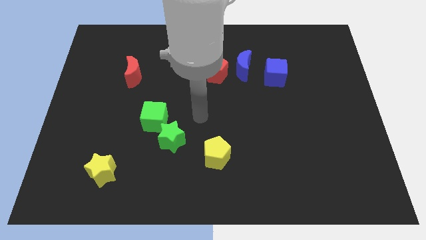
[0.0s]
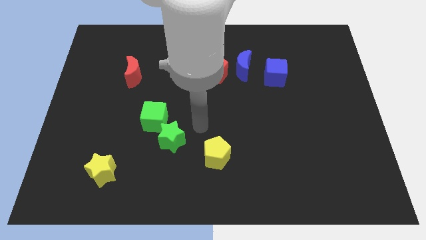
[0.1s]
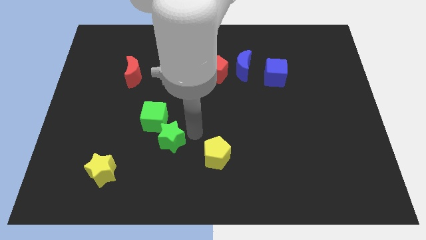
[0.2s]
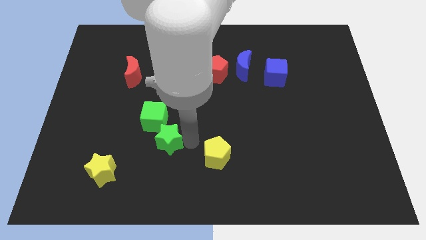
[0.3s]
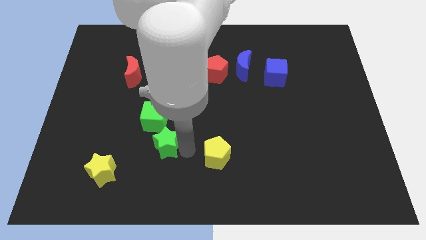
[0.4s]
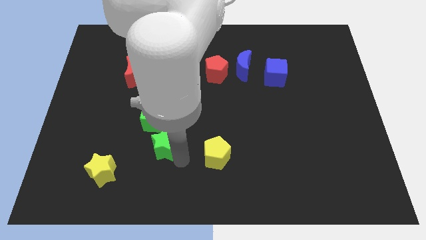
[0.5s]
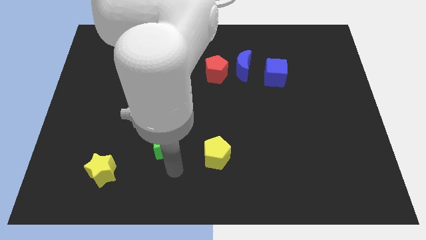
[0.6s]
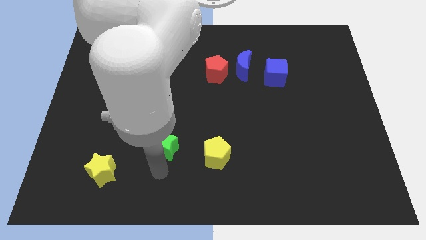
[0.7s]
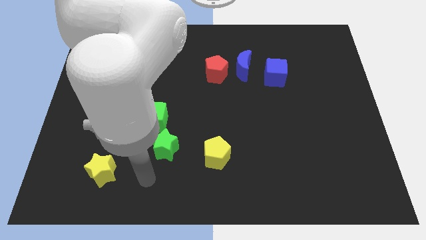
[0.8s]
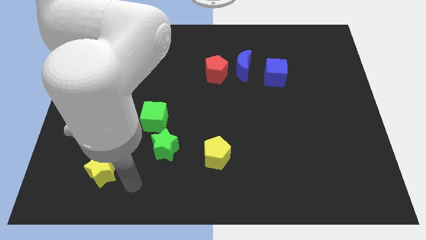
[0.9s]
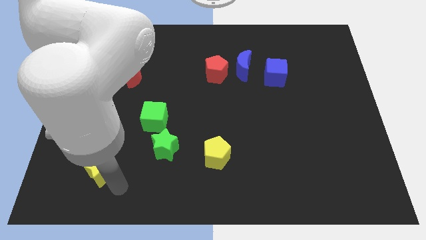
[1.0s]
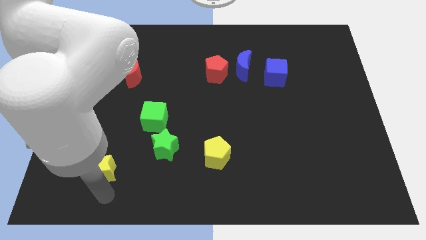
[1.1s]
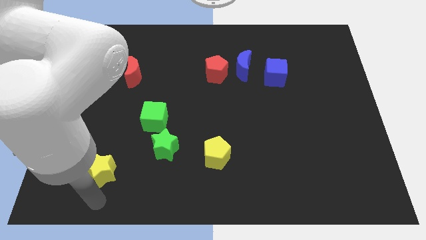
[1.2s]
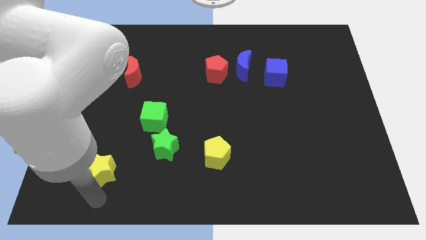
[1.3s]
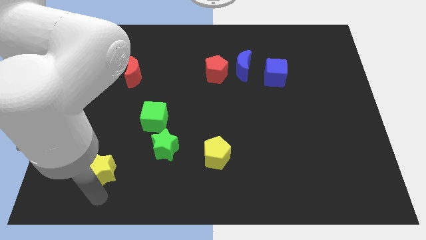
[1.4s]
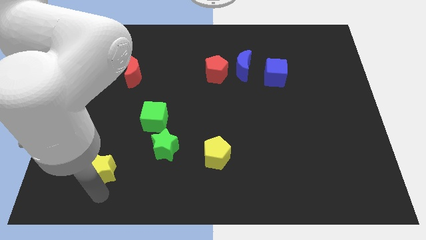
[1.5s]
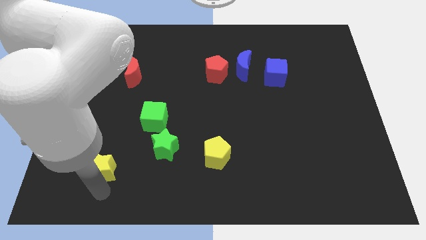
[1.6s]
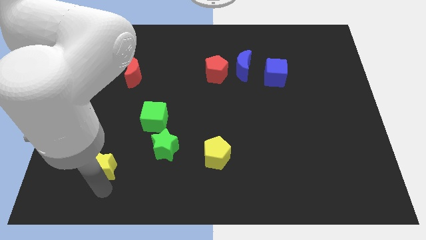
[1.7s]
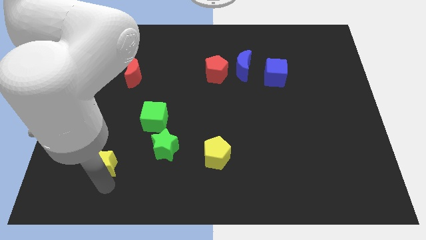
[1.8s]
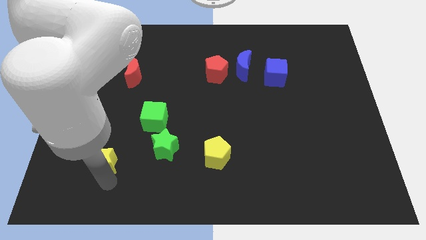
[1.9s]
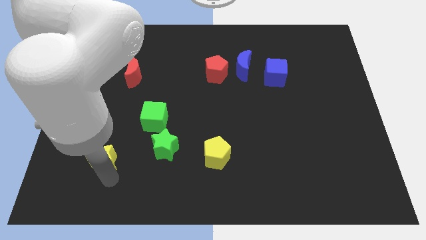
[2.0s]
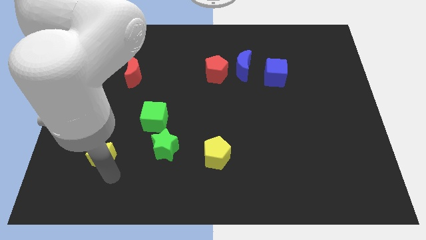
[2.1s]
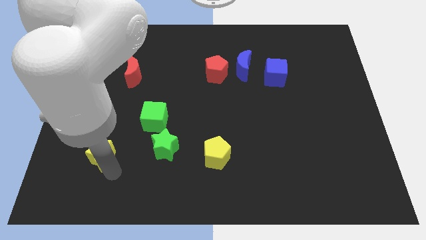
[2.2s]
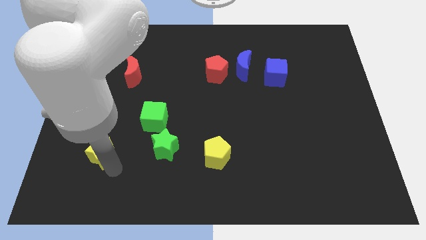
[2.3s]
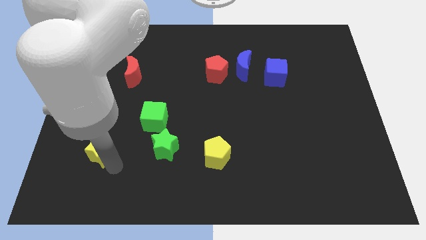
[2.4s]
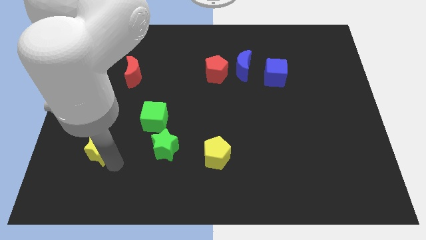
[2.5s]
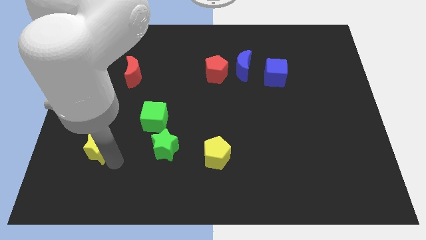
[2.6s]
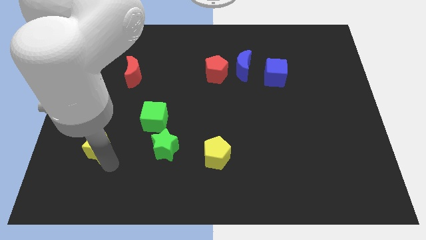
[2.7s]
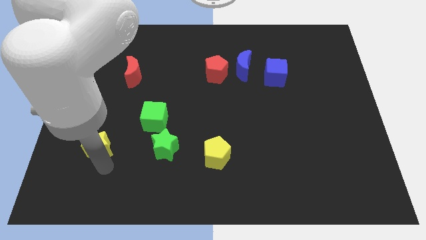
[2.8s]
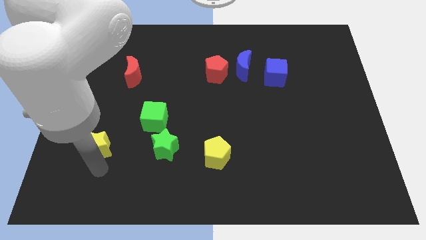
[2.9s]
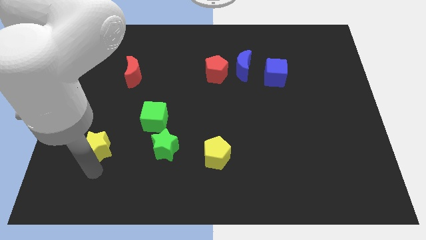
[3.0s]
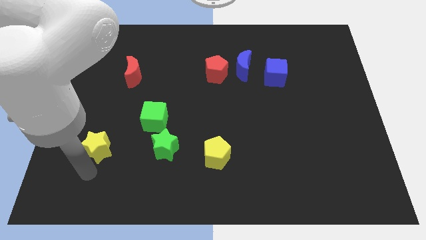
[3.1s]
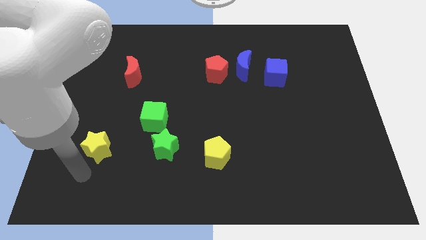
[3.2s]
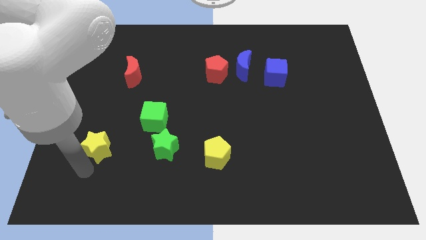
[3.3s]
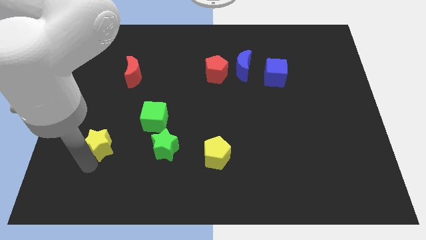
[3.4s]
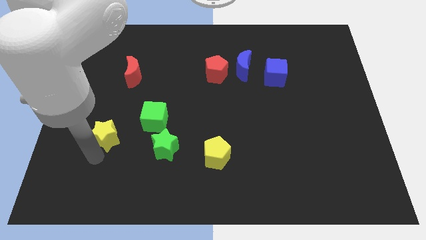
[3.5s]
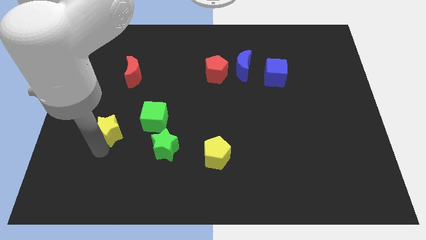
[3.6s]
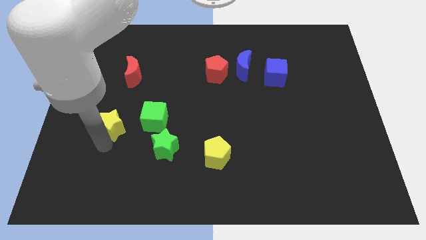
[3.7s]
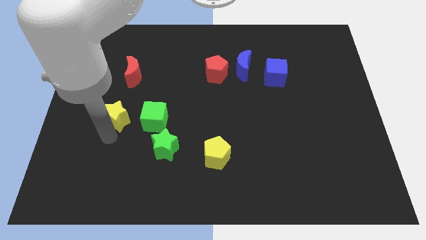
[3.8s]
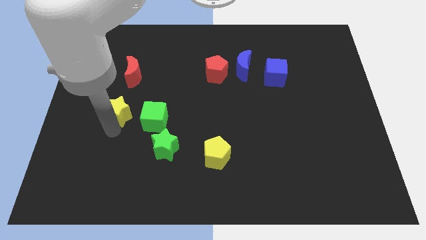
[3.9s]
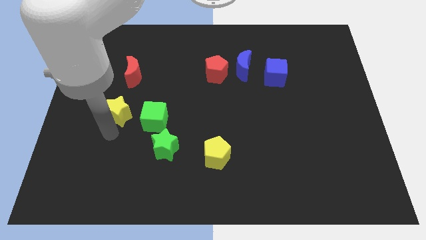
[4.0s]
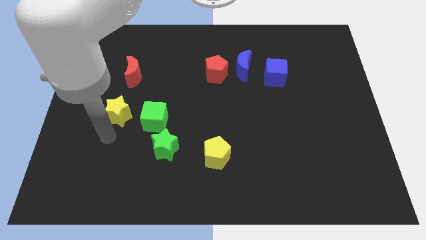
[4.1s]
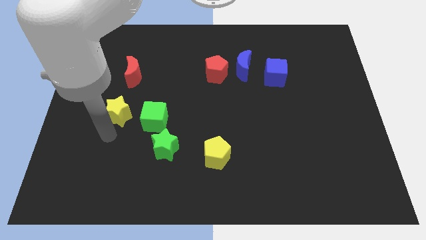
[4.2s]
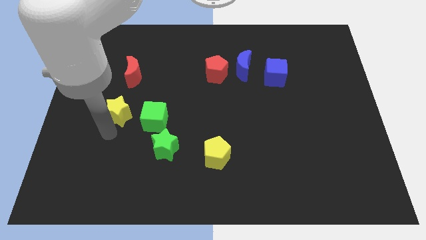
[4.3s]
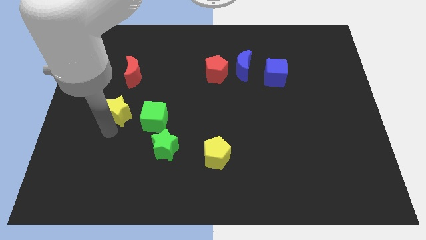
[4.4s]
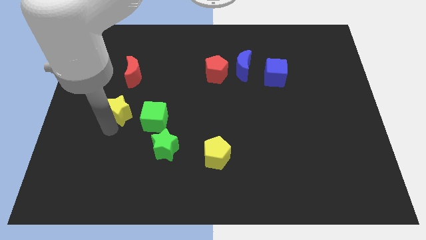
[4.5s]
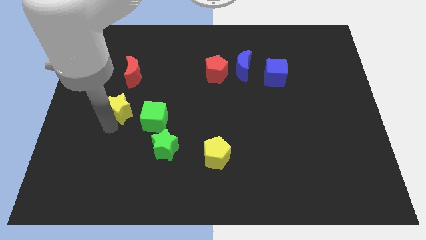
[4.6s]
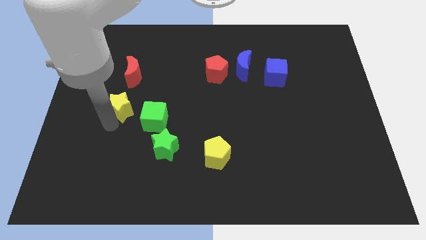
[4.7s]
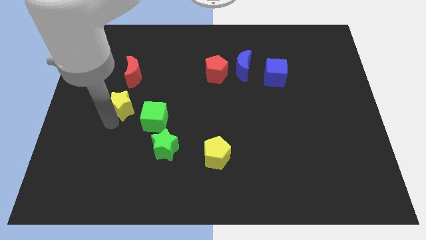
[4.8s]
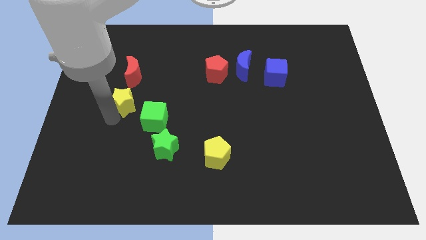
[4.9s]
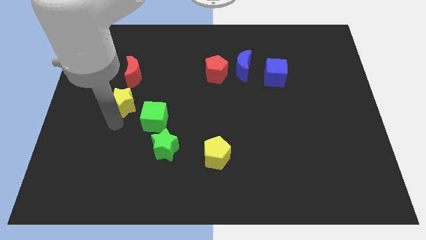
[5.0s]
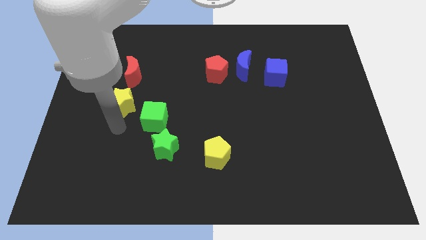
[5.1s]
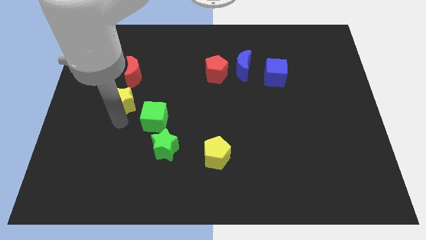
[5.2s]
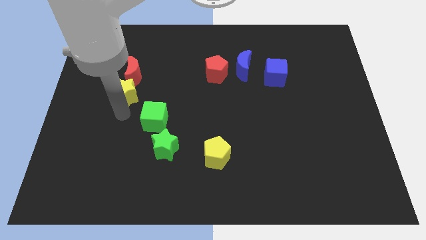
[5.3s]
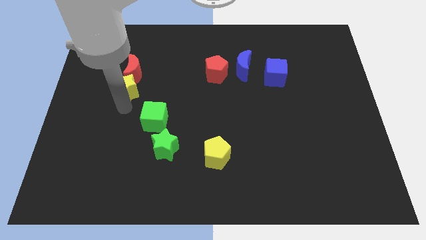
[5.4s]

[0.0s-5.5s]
slide the yellow star next to the red moon

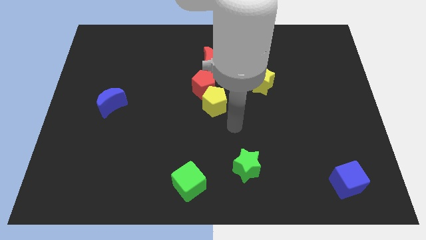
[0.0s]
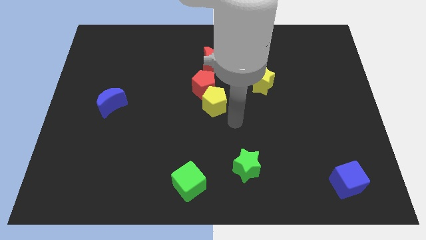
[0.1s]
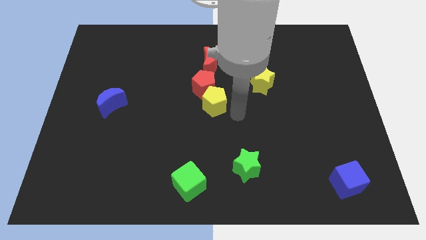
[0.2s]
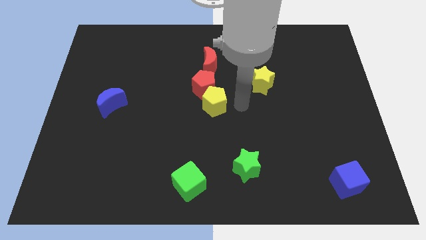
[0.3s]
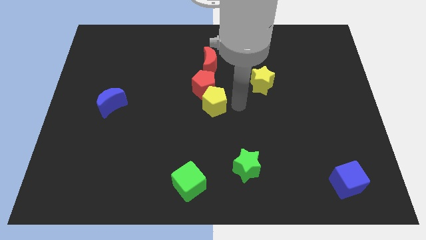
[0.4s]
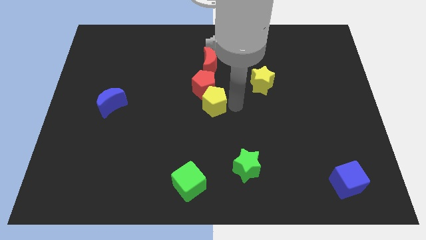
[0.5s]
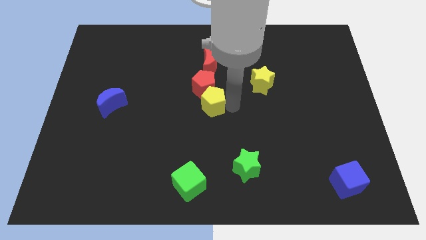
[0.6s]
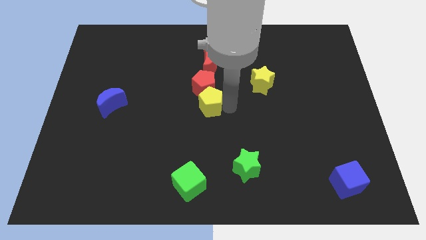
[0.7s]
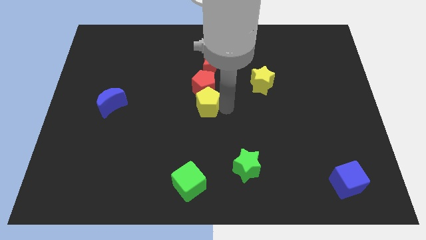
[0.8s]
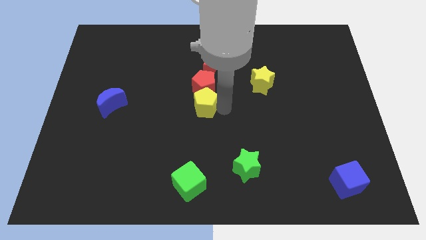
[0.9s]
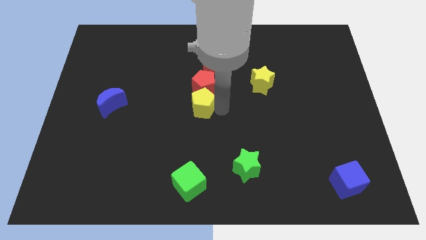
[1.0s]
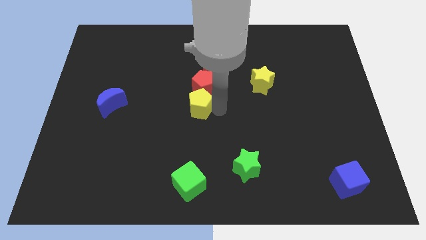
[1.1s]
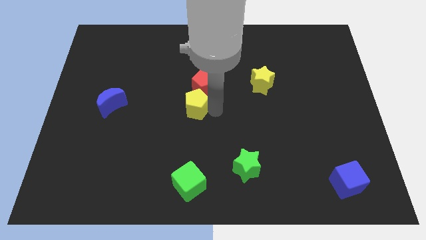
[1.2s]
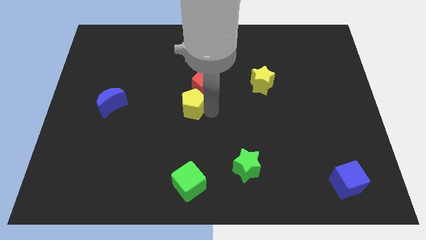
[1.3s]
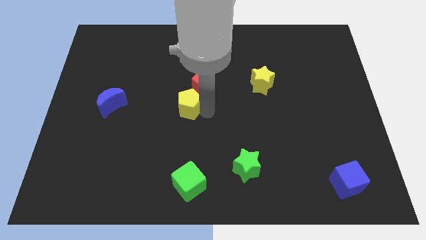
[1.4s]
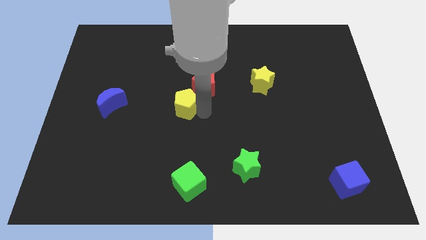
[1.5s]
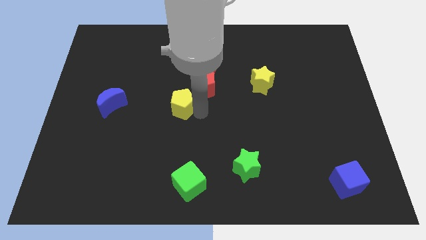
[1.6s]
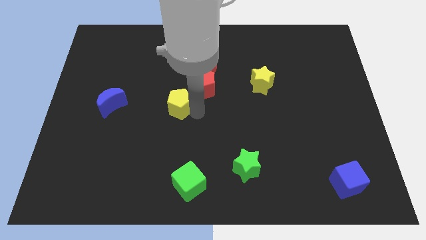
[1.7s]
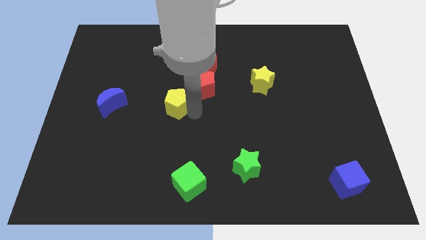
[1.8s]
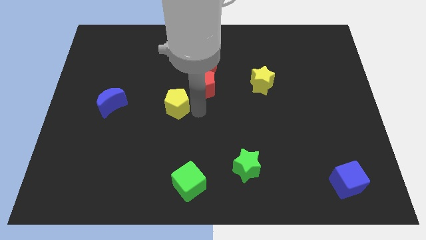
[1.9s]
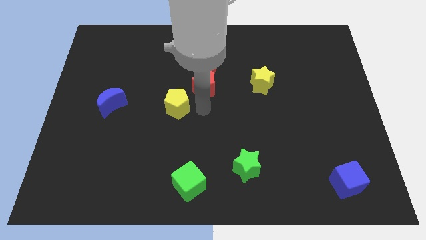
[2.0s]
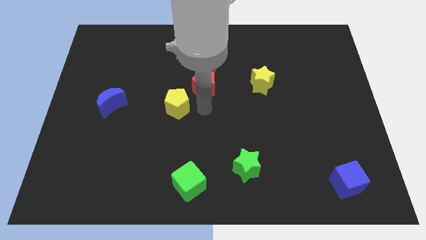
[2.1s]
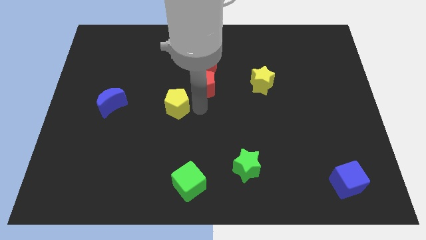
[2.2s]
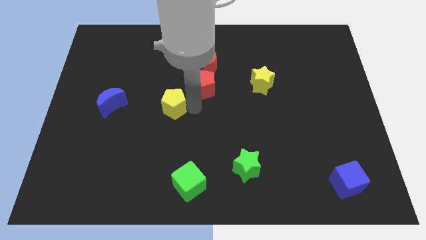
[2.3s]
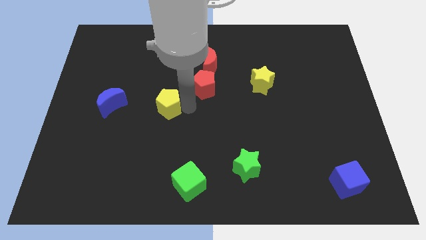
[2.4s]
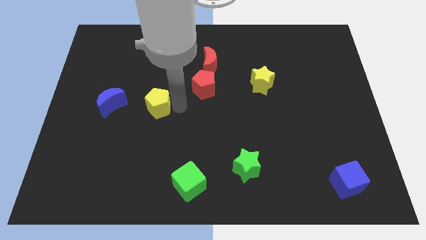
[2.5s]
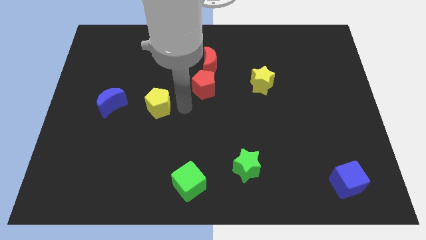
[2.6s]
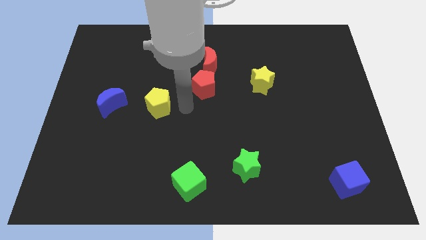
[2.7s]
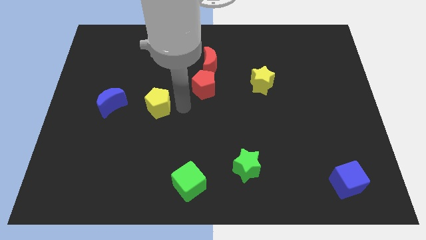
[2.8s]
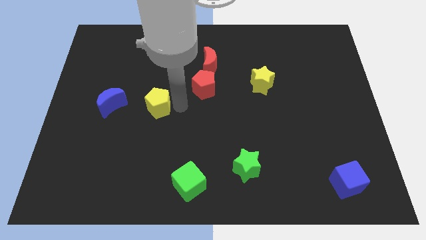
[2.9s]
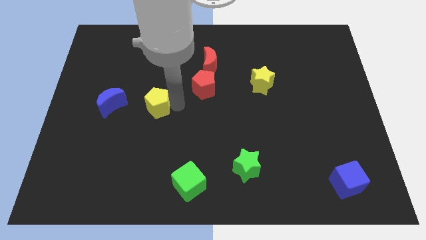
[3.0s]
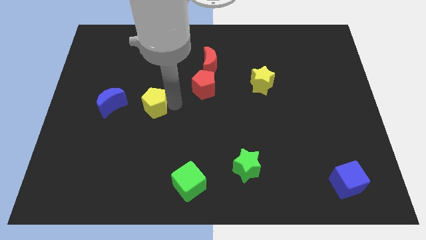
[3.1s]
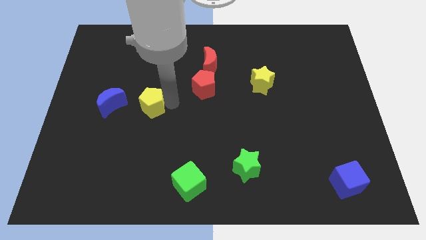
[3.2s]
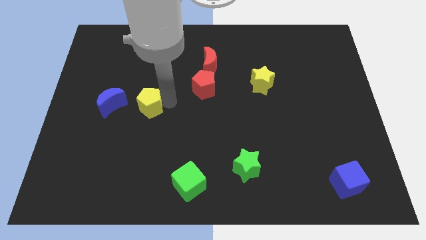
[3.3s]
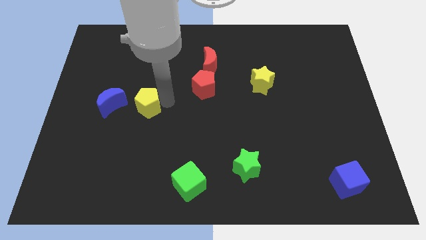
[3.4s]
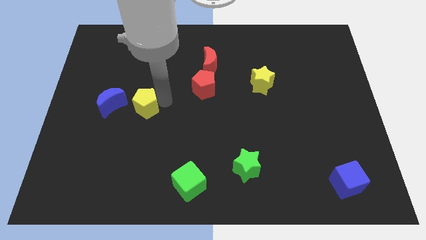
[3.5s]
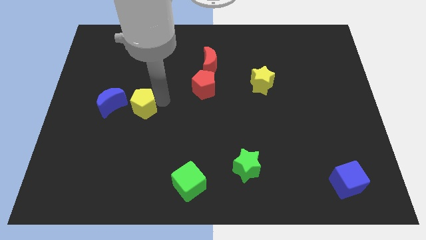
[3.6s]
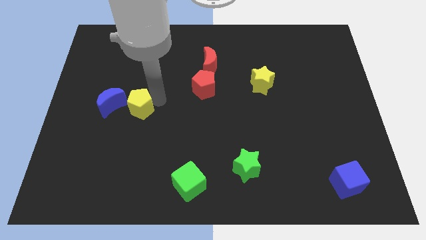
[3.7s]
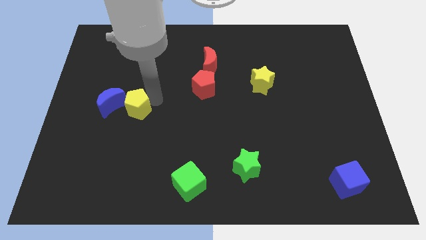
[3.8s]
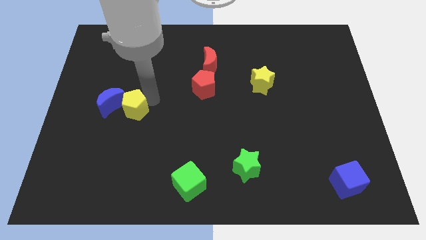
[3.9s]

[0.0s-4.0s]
put the yellow pentagon next to the blue moon
